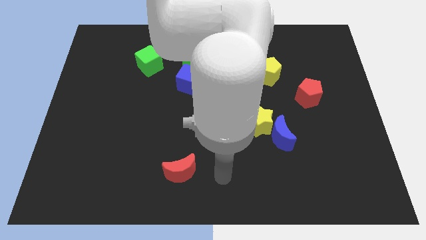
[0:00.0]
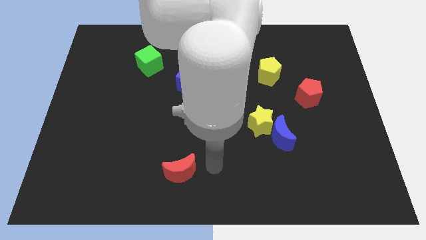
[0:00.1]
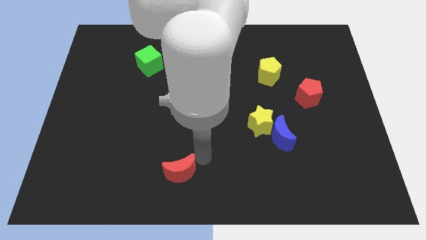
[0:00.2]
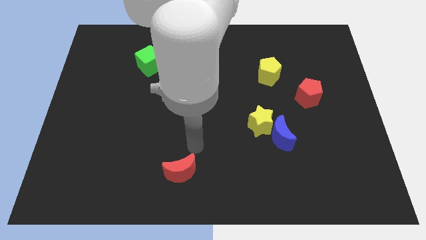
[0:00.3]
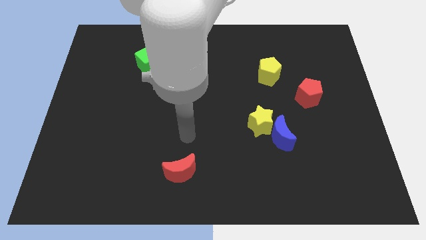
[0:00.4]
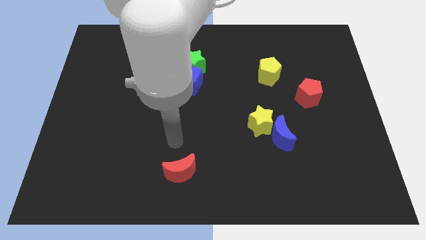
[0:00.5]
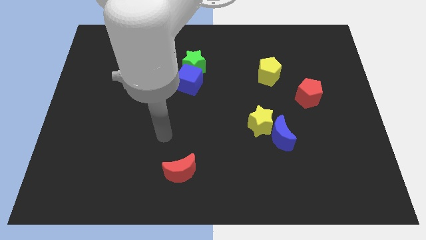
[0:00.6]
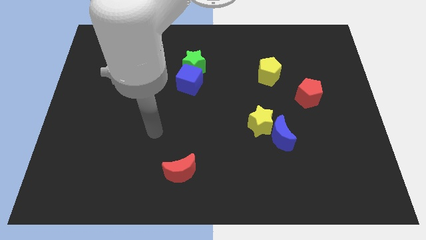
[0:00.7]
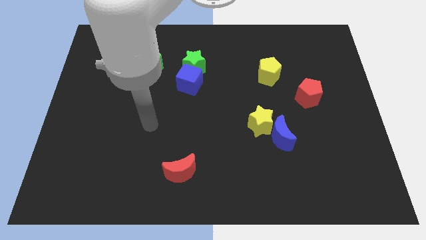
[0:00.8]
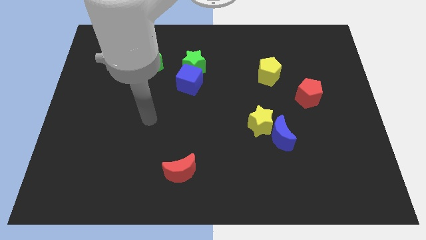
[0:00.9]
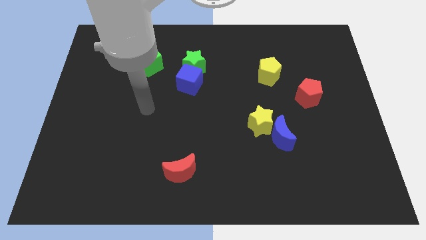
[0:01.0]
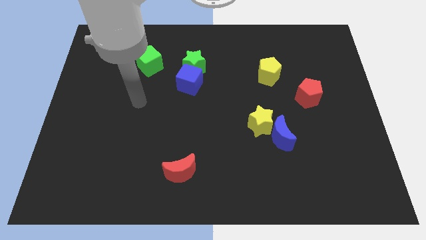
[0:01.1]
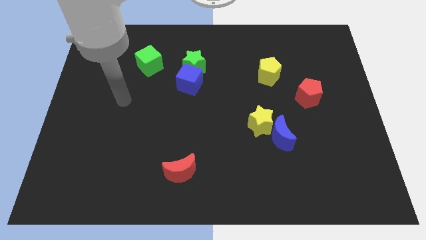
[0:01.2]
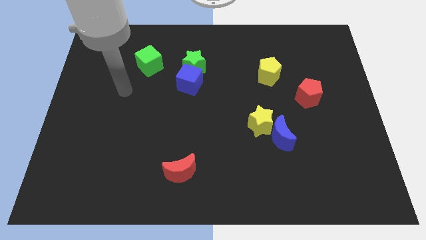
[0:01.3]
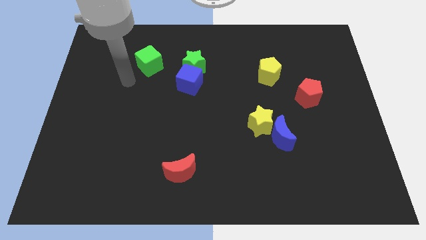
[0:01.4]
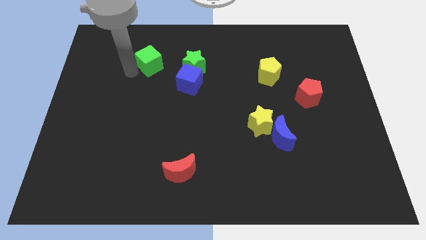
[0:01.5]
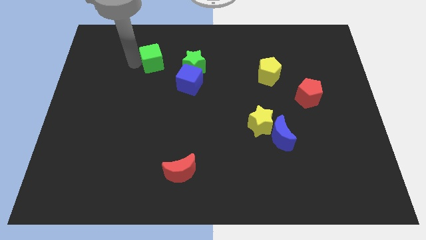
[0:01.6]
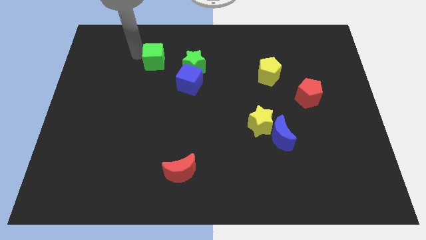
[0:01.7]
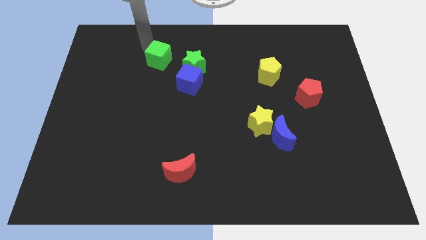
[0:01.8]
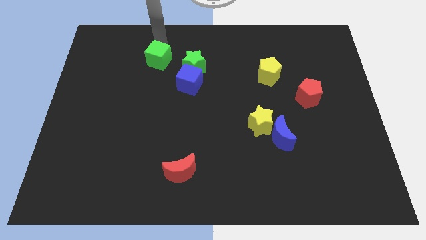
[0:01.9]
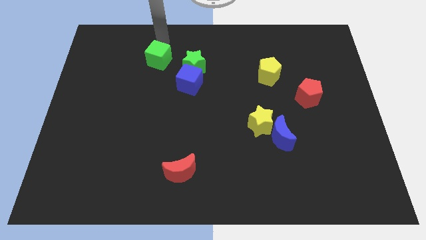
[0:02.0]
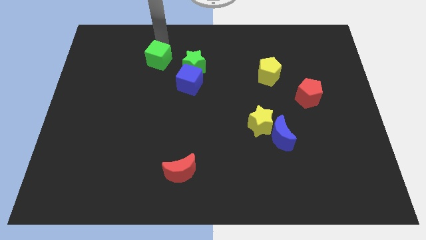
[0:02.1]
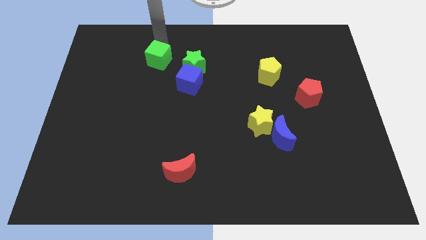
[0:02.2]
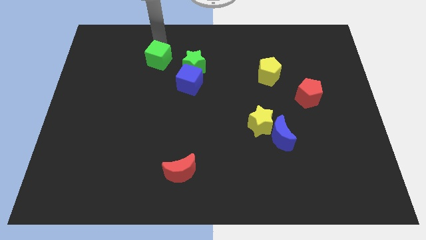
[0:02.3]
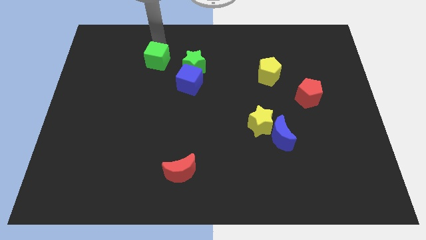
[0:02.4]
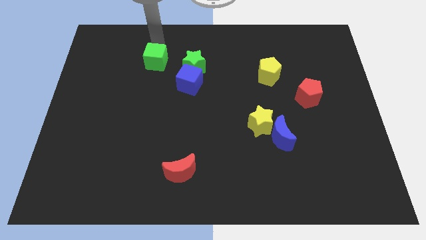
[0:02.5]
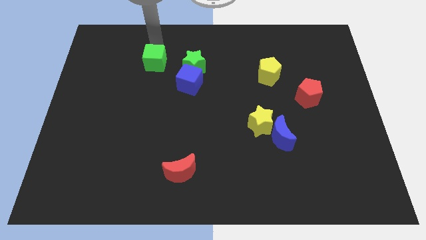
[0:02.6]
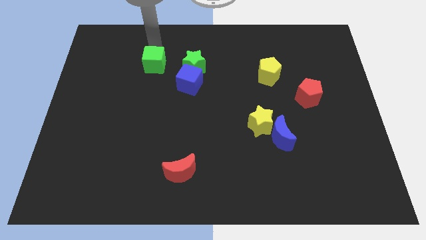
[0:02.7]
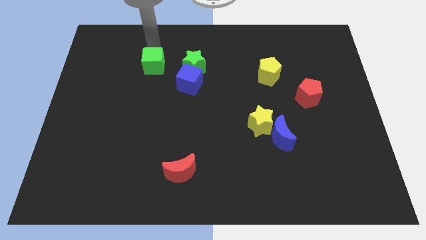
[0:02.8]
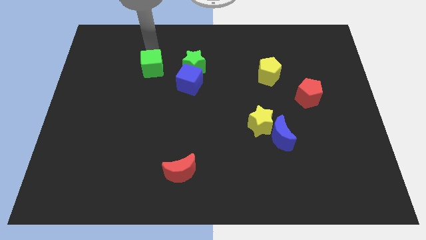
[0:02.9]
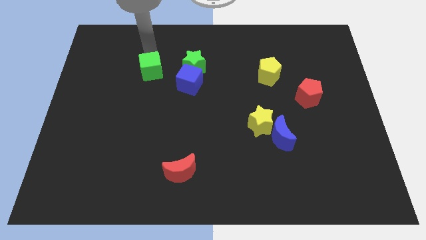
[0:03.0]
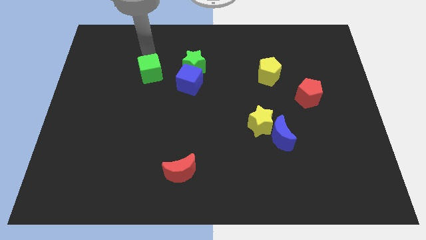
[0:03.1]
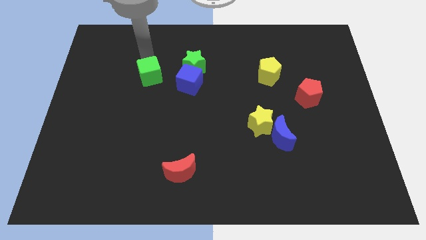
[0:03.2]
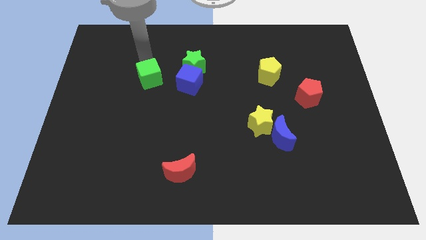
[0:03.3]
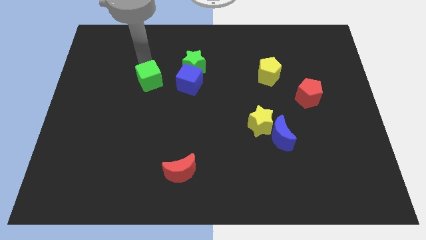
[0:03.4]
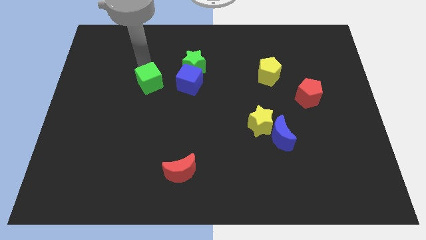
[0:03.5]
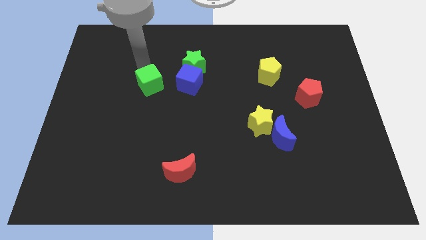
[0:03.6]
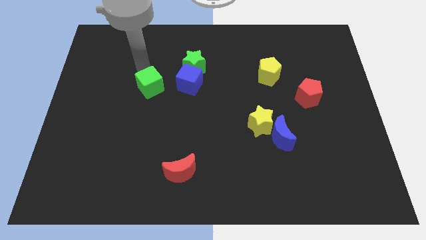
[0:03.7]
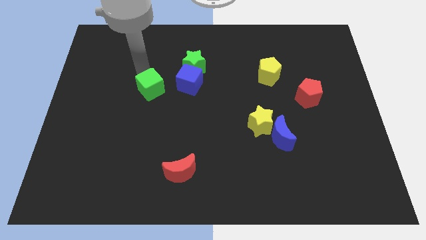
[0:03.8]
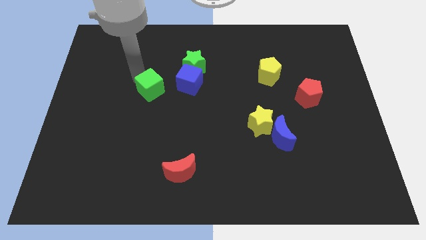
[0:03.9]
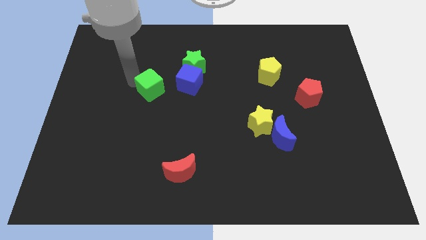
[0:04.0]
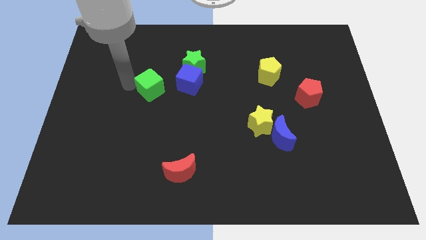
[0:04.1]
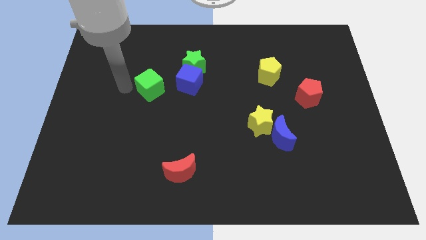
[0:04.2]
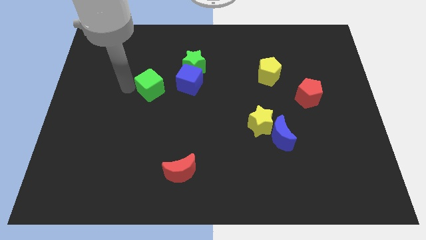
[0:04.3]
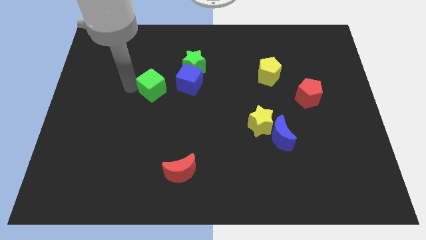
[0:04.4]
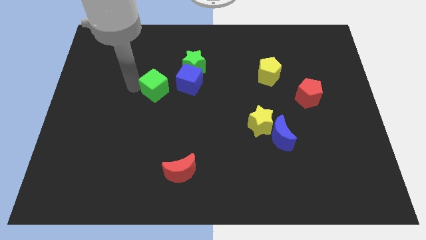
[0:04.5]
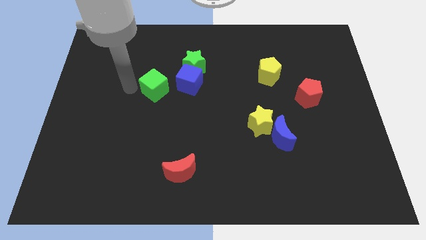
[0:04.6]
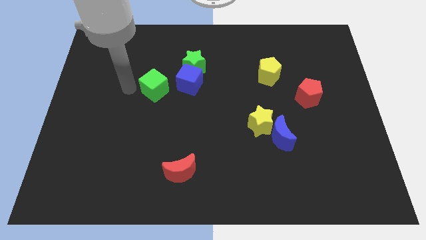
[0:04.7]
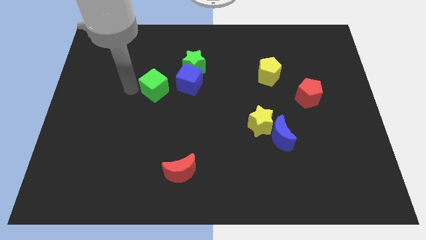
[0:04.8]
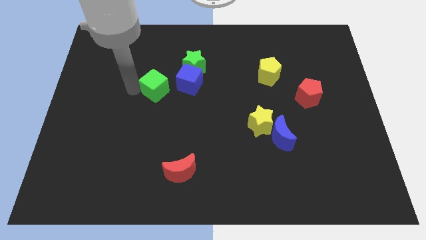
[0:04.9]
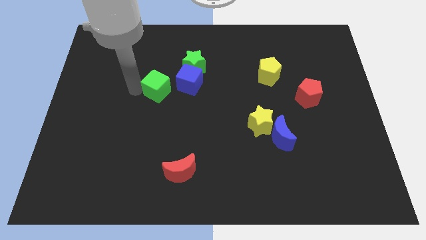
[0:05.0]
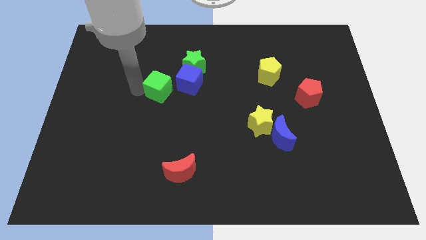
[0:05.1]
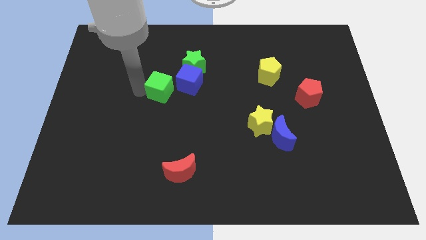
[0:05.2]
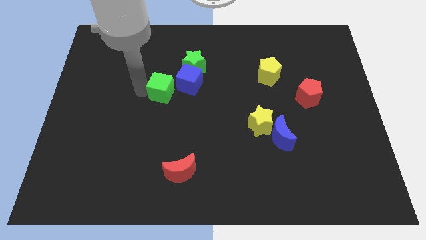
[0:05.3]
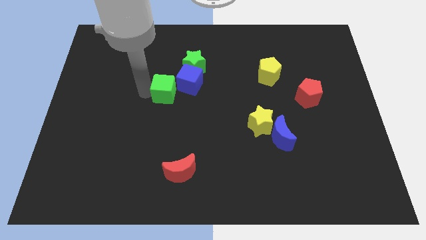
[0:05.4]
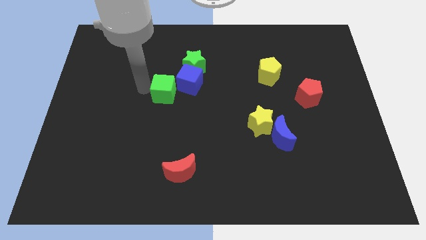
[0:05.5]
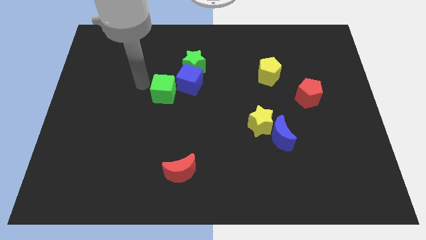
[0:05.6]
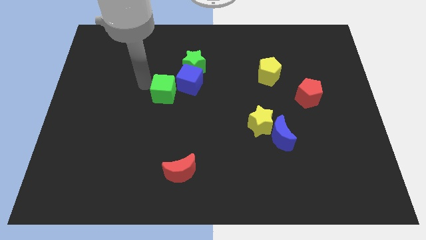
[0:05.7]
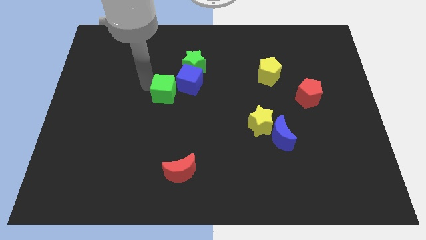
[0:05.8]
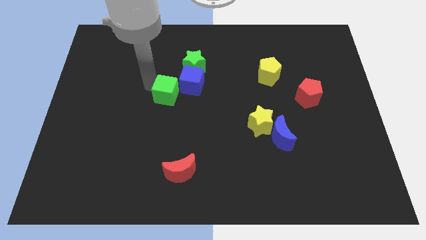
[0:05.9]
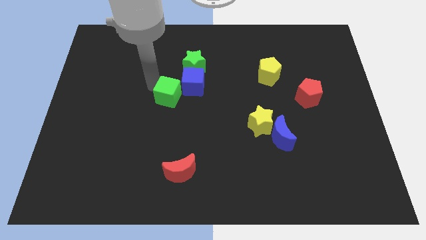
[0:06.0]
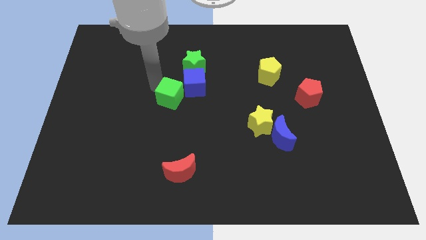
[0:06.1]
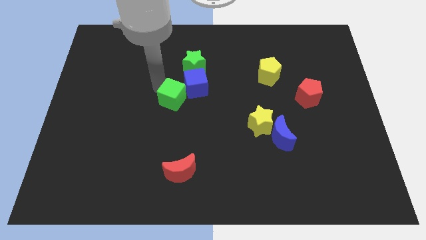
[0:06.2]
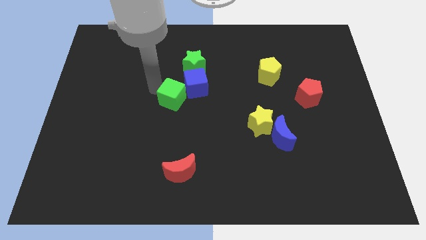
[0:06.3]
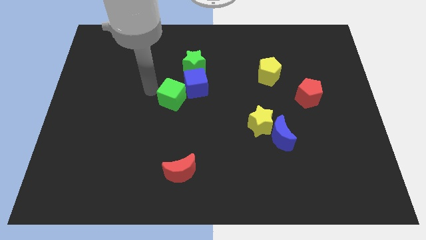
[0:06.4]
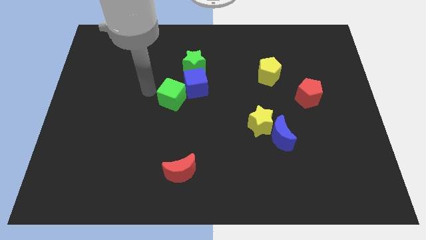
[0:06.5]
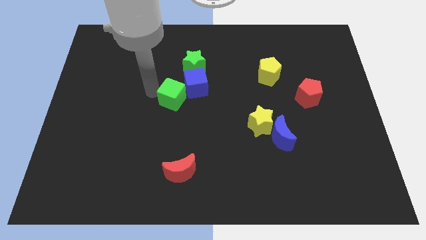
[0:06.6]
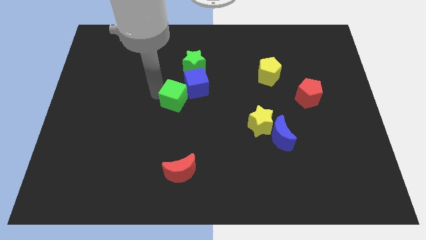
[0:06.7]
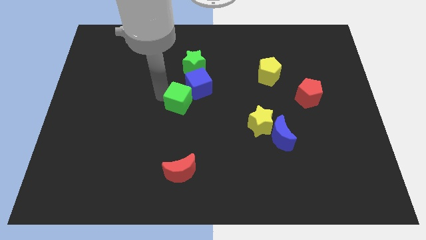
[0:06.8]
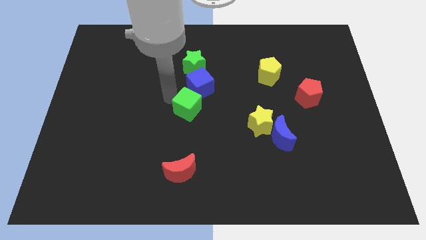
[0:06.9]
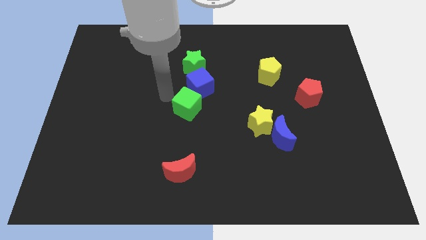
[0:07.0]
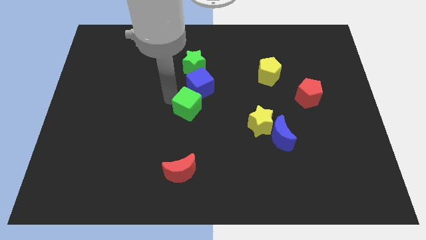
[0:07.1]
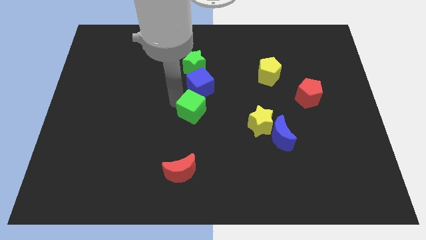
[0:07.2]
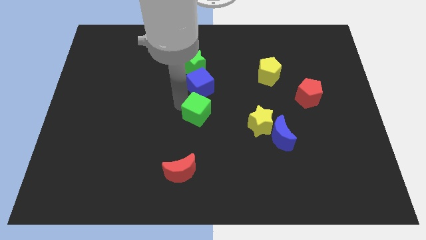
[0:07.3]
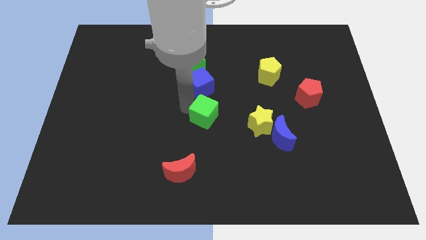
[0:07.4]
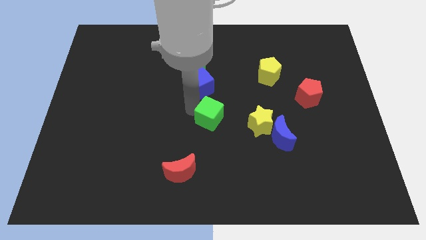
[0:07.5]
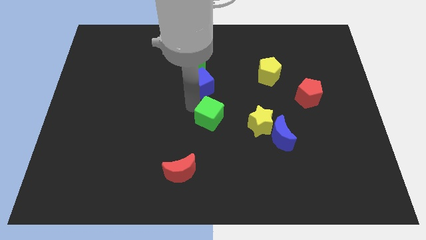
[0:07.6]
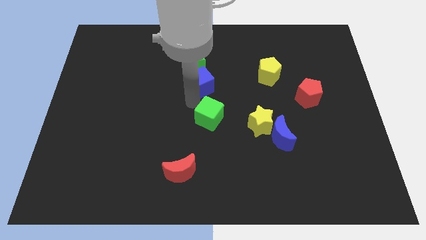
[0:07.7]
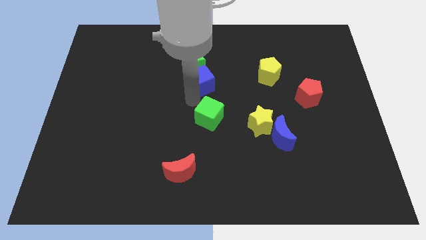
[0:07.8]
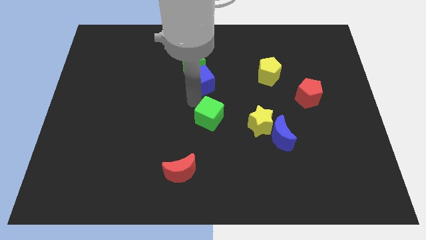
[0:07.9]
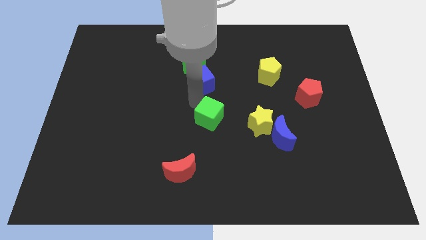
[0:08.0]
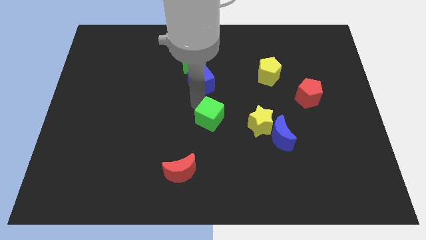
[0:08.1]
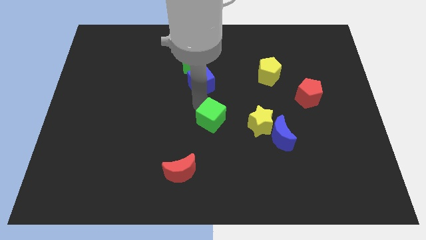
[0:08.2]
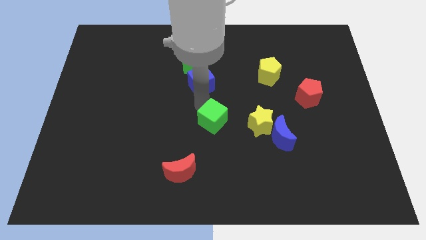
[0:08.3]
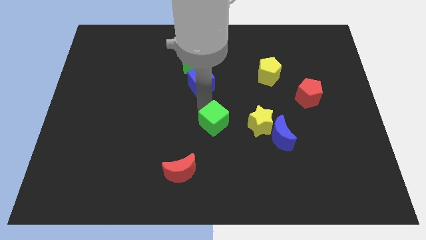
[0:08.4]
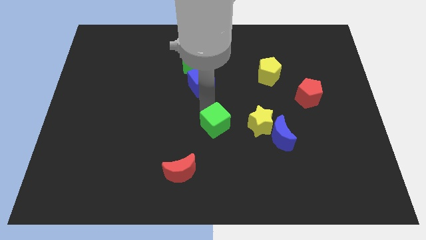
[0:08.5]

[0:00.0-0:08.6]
put the green cube just left of the blue moon
